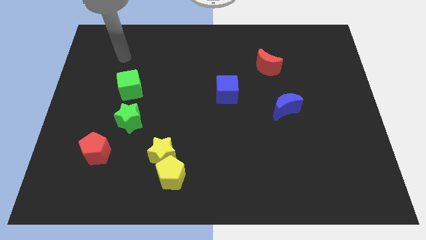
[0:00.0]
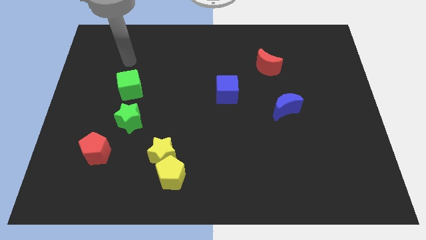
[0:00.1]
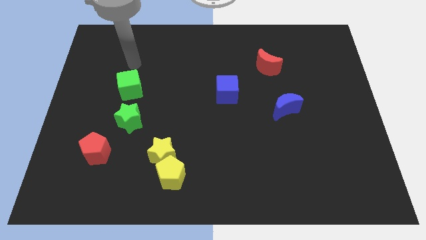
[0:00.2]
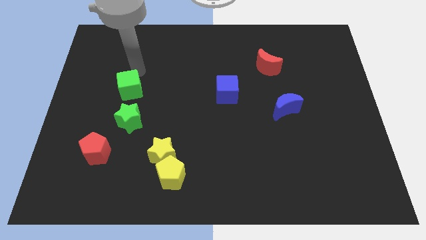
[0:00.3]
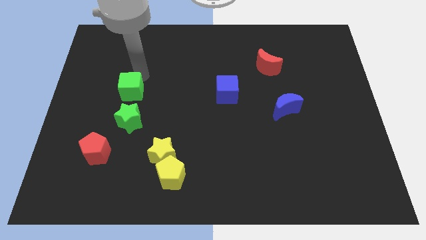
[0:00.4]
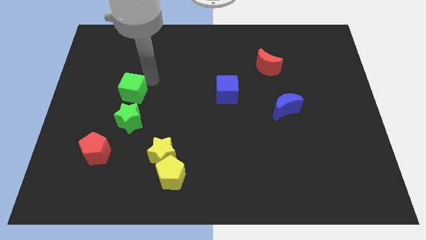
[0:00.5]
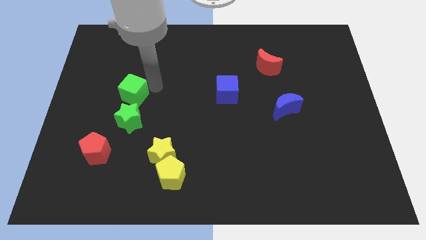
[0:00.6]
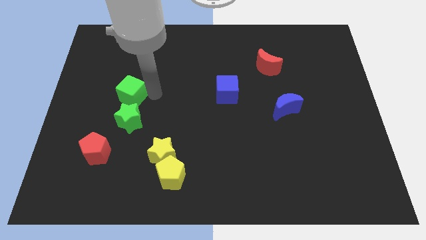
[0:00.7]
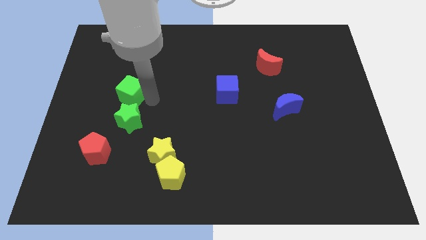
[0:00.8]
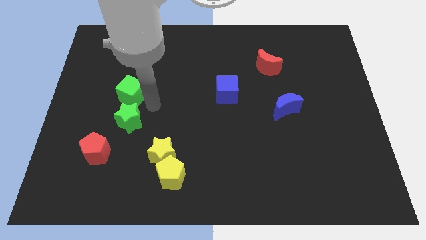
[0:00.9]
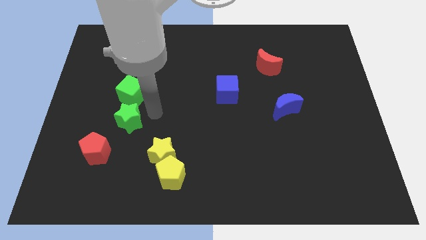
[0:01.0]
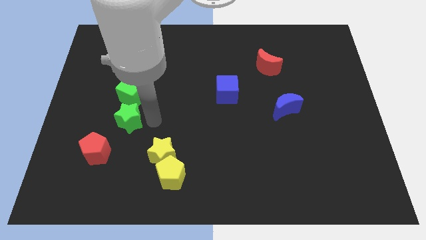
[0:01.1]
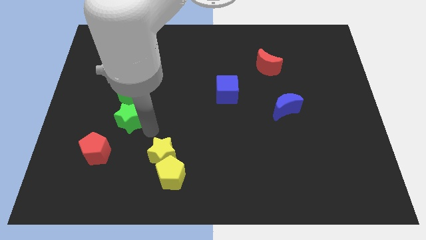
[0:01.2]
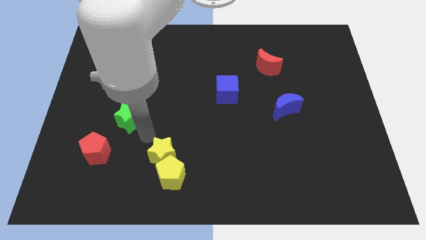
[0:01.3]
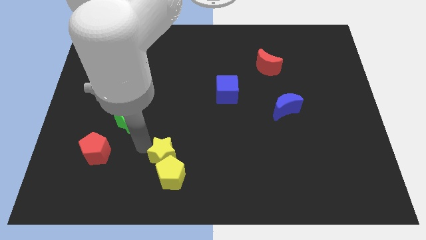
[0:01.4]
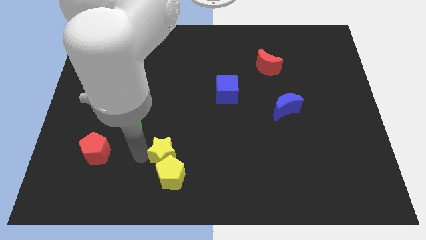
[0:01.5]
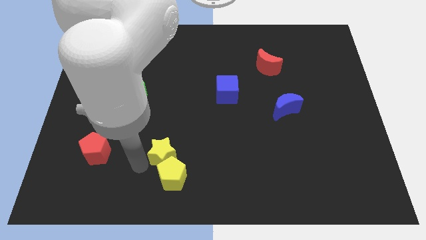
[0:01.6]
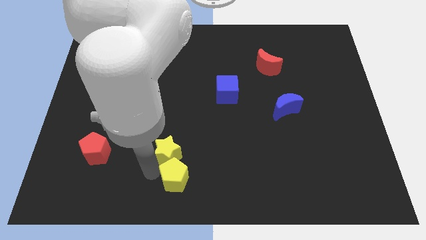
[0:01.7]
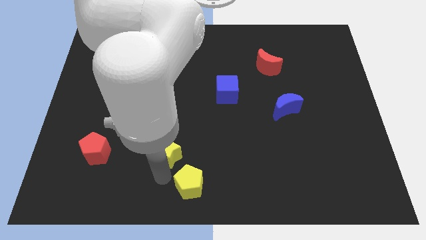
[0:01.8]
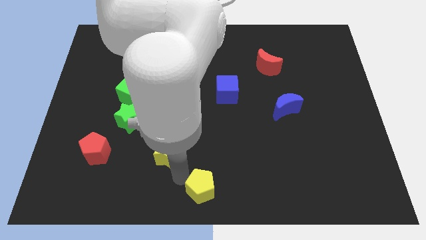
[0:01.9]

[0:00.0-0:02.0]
separate the yellow star from the yellow pentagon

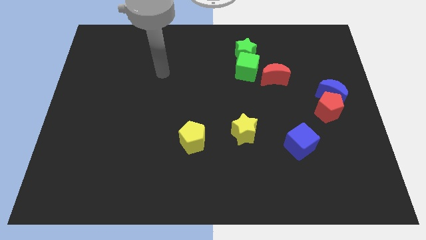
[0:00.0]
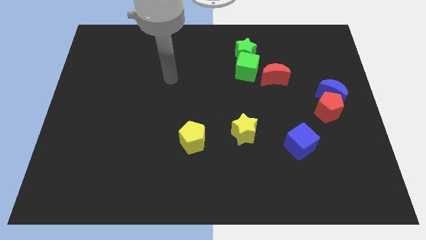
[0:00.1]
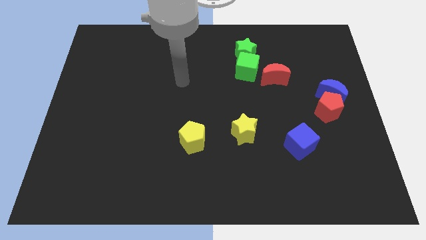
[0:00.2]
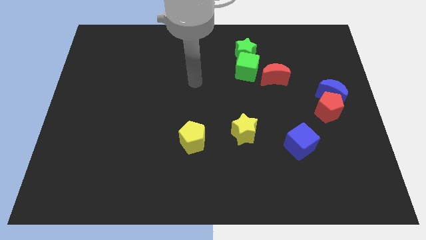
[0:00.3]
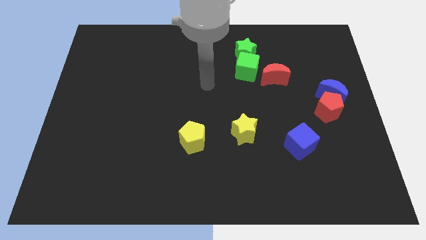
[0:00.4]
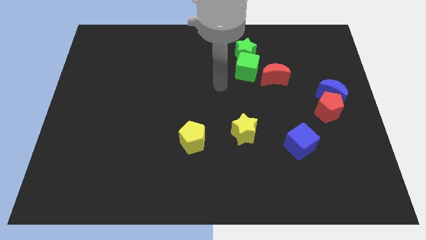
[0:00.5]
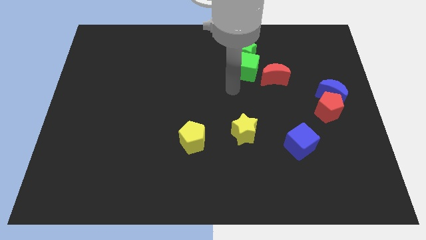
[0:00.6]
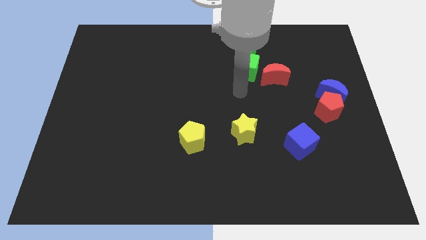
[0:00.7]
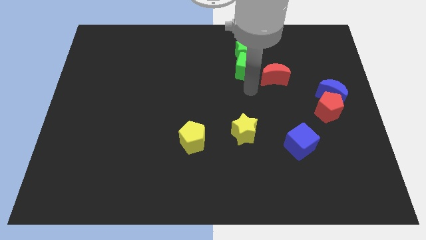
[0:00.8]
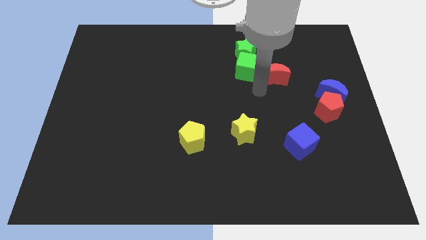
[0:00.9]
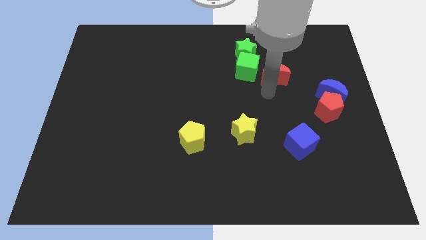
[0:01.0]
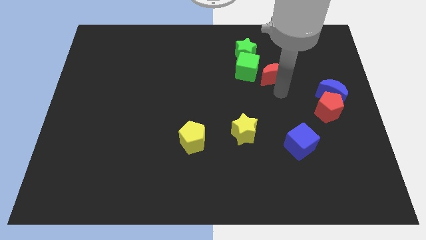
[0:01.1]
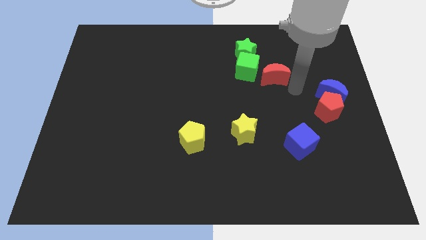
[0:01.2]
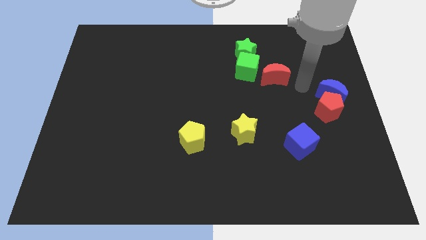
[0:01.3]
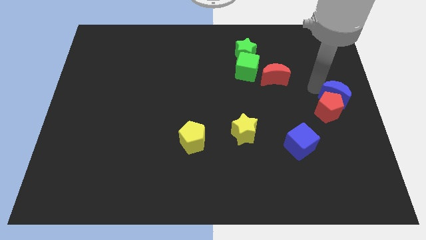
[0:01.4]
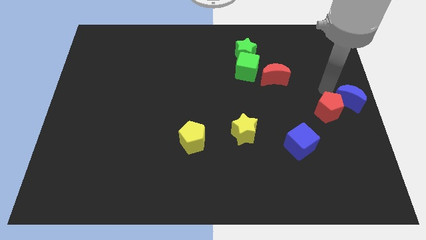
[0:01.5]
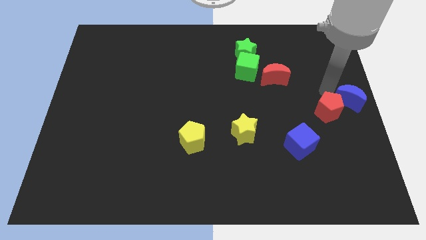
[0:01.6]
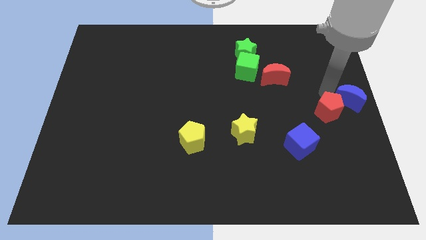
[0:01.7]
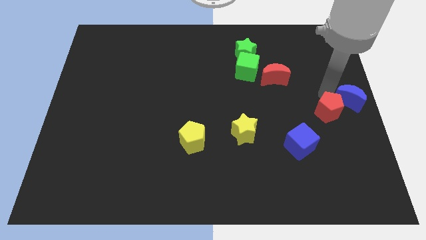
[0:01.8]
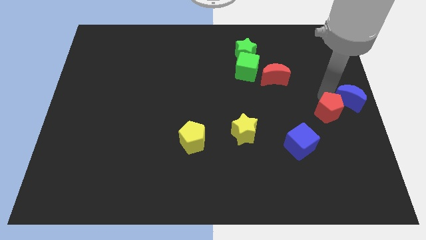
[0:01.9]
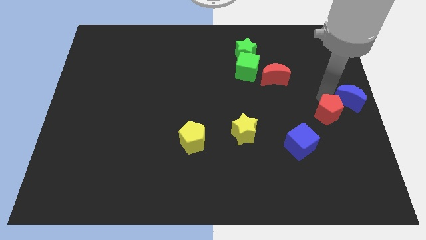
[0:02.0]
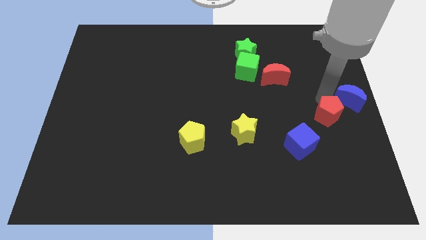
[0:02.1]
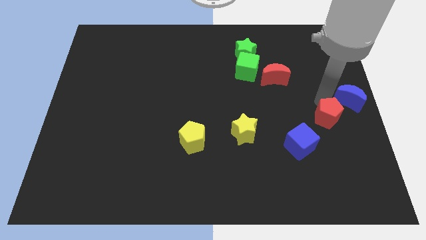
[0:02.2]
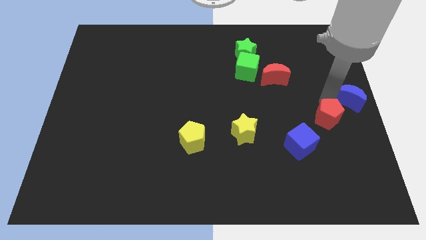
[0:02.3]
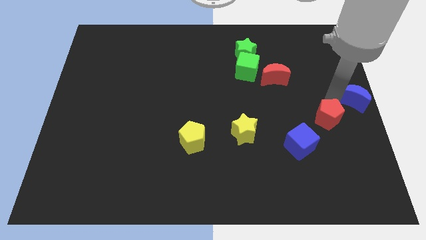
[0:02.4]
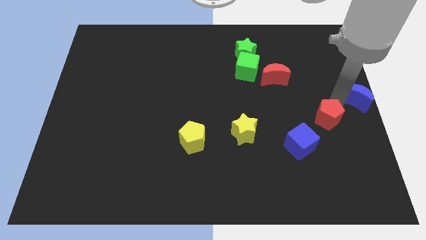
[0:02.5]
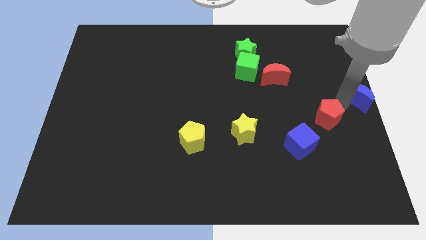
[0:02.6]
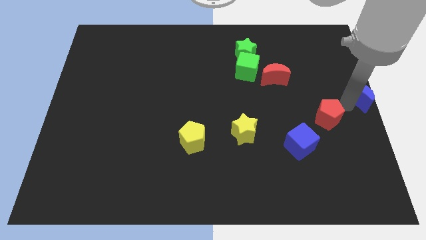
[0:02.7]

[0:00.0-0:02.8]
pull the red pentagon apart from the blue moon

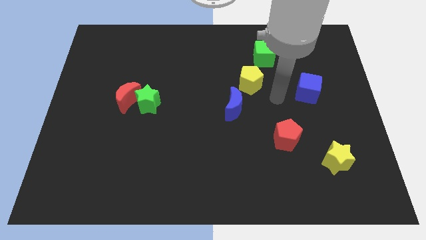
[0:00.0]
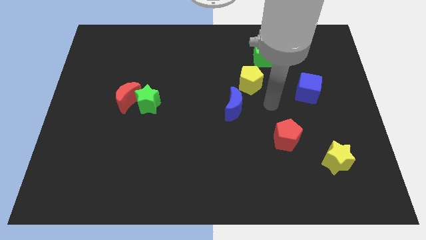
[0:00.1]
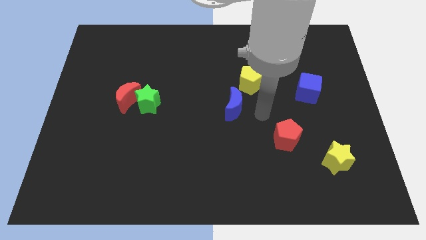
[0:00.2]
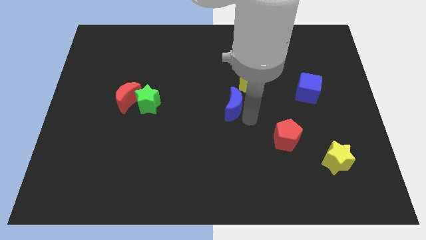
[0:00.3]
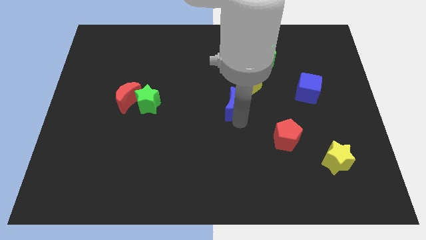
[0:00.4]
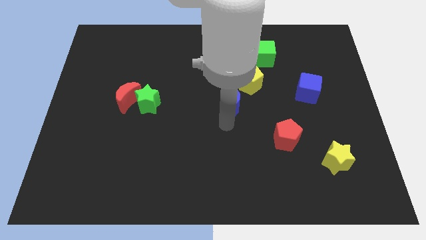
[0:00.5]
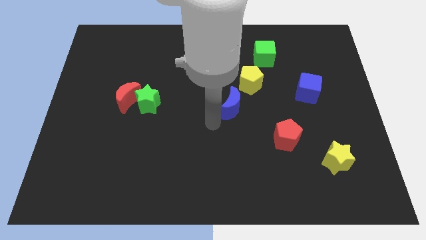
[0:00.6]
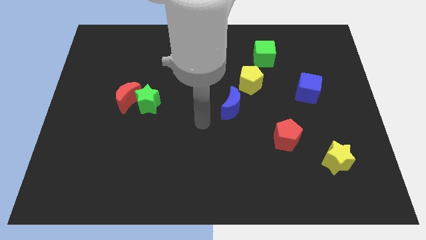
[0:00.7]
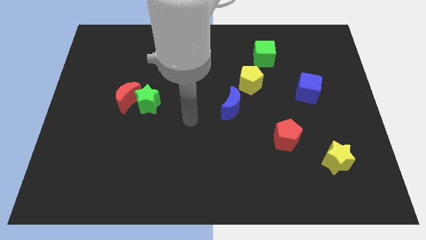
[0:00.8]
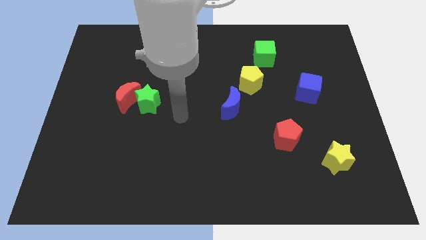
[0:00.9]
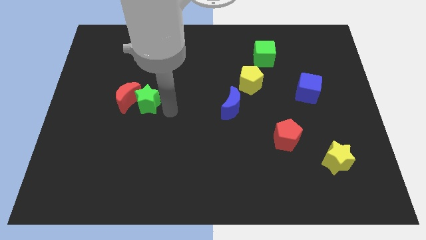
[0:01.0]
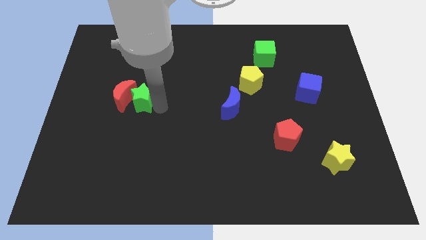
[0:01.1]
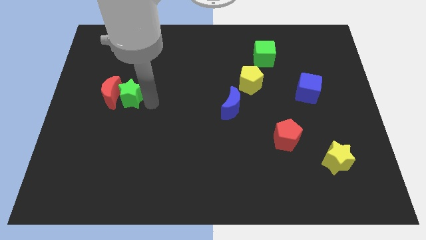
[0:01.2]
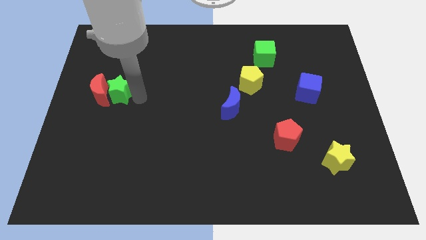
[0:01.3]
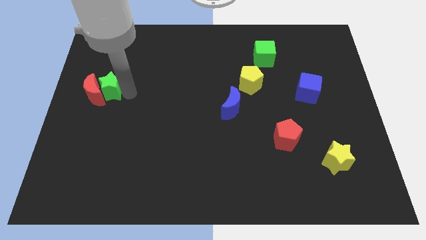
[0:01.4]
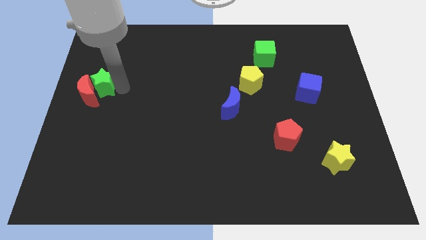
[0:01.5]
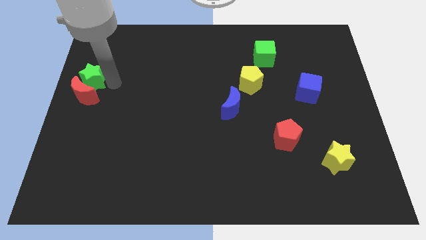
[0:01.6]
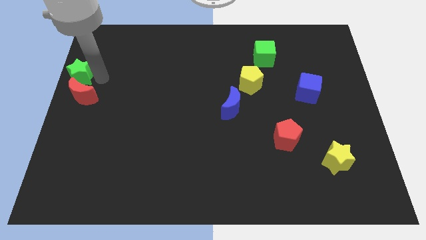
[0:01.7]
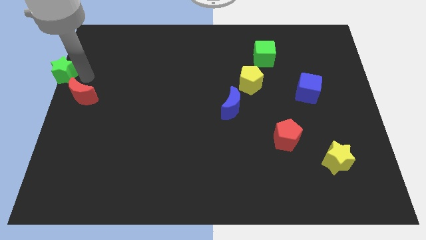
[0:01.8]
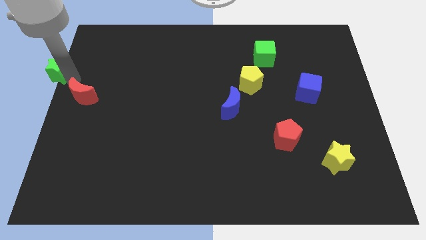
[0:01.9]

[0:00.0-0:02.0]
move the red moon away from the green star

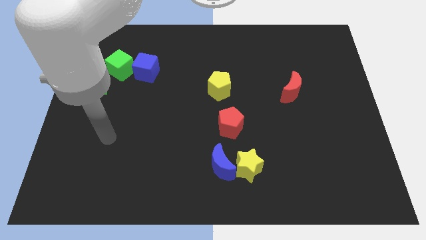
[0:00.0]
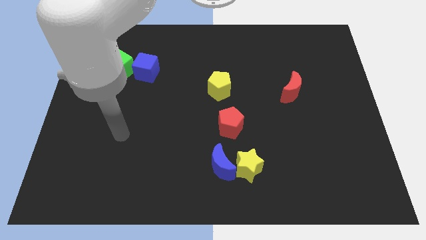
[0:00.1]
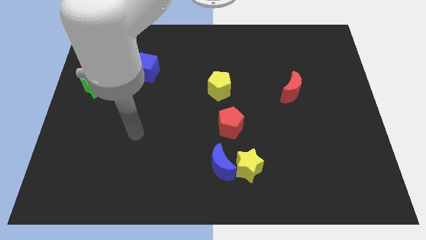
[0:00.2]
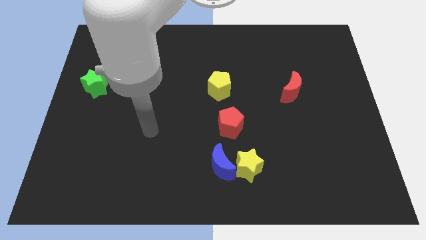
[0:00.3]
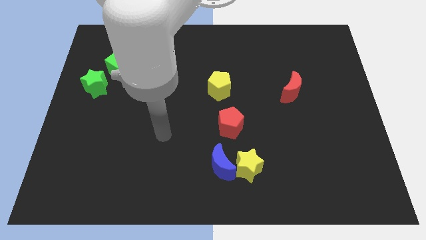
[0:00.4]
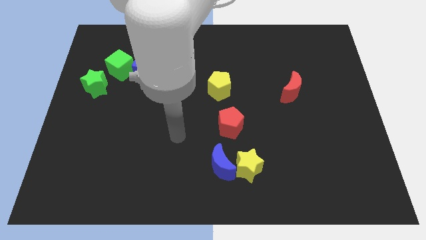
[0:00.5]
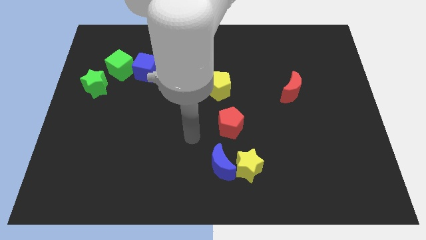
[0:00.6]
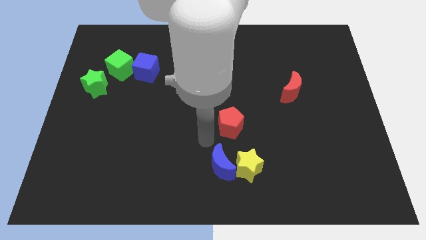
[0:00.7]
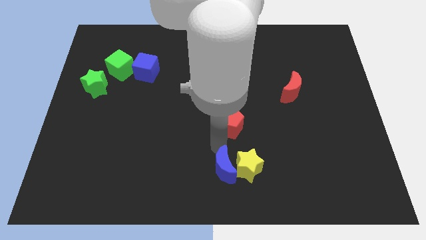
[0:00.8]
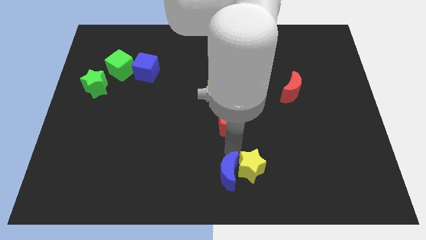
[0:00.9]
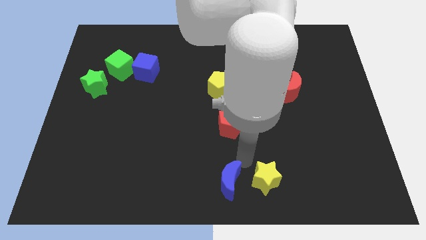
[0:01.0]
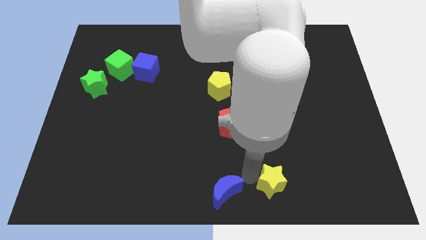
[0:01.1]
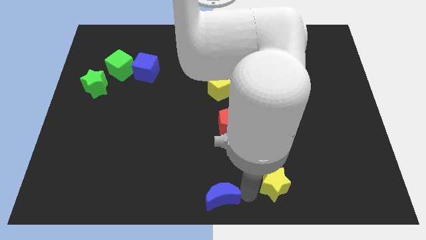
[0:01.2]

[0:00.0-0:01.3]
pull the blue moon apart from the yellow star

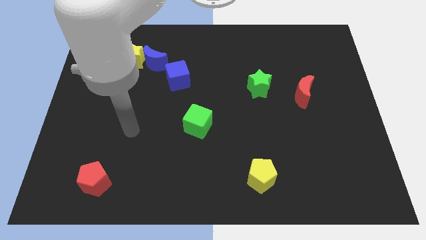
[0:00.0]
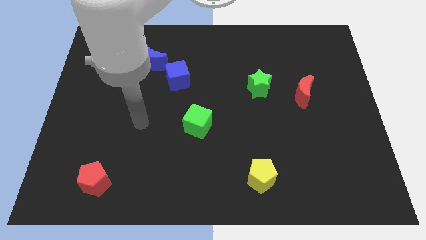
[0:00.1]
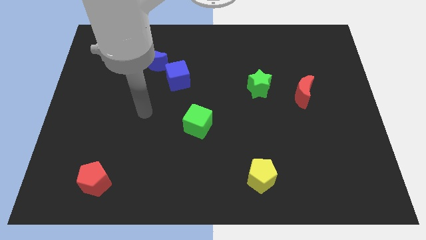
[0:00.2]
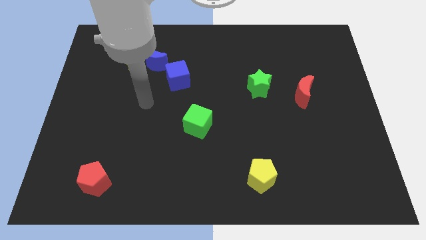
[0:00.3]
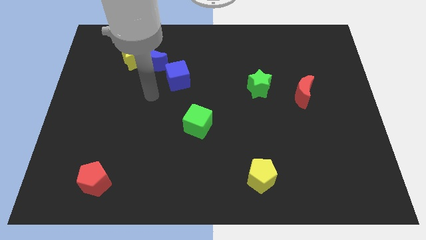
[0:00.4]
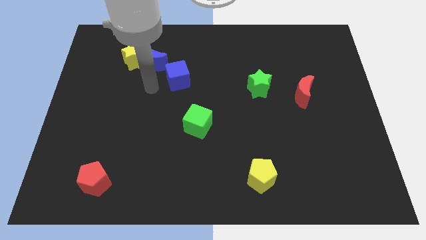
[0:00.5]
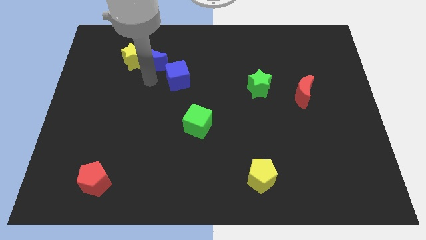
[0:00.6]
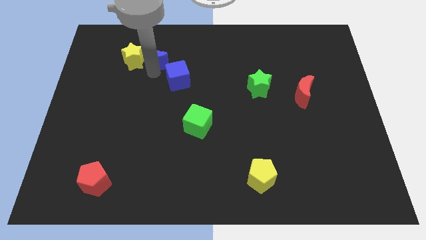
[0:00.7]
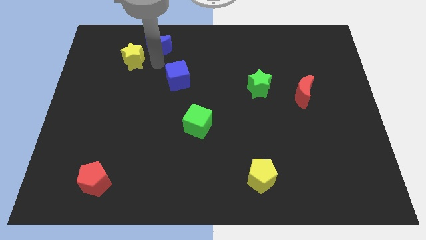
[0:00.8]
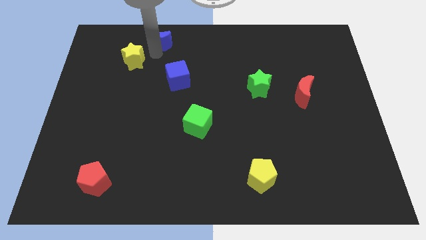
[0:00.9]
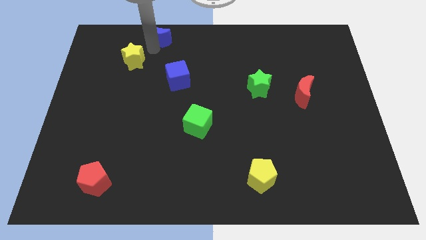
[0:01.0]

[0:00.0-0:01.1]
pull the yellow star apart from the blue moon
